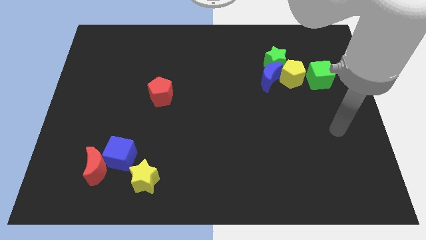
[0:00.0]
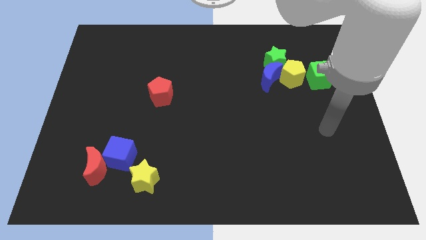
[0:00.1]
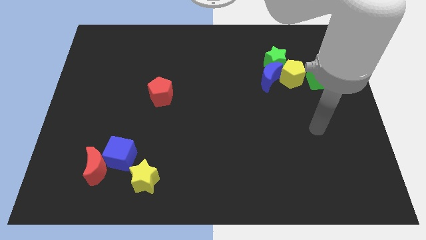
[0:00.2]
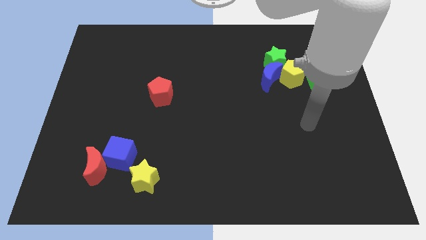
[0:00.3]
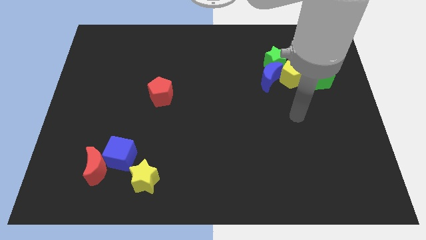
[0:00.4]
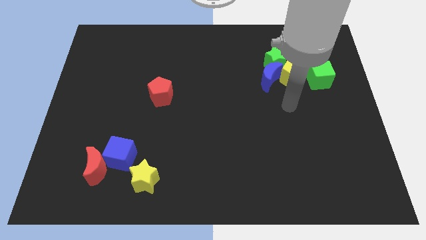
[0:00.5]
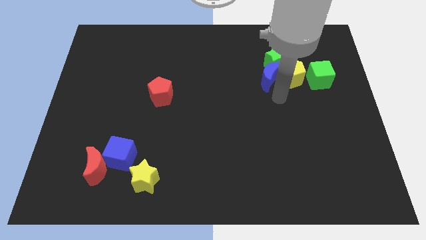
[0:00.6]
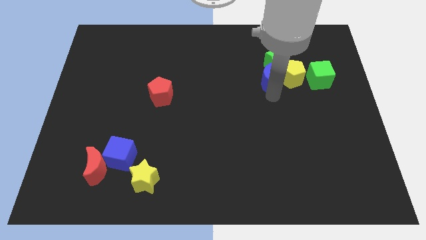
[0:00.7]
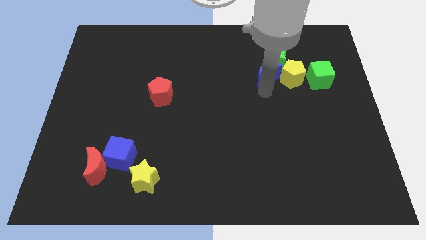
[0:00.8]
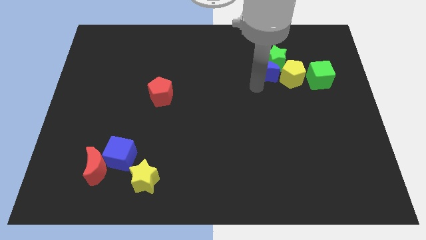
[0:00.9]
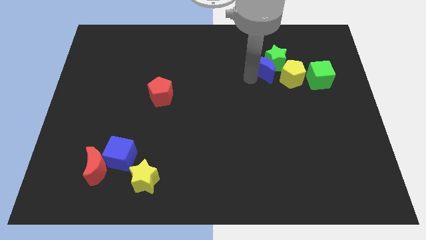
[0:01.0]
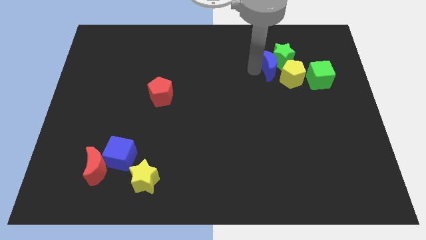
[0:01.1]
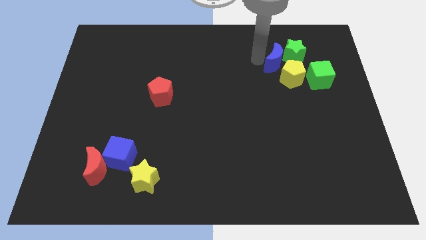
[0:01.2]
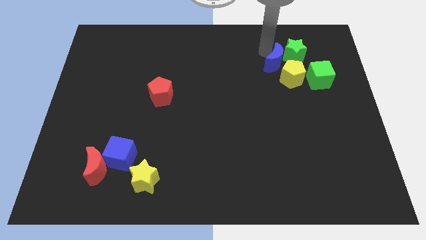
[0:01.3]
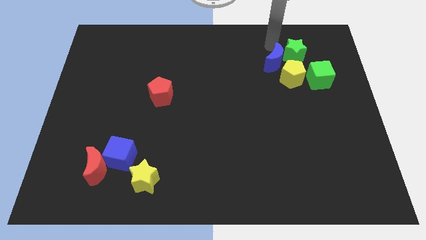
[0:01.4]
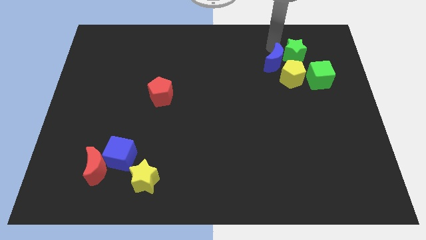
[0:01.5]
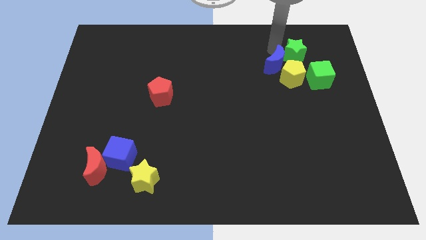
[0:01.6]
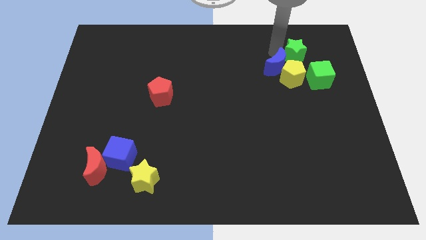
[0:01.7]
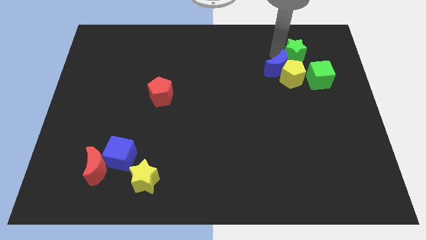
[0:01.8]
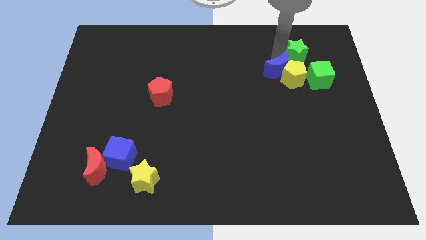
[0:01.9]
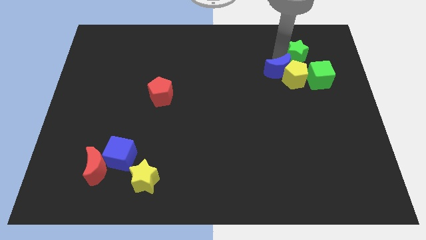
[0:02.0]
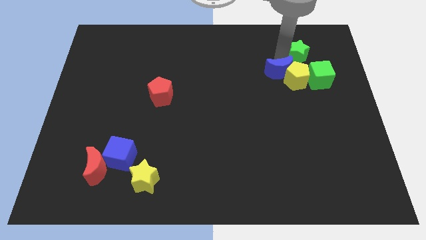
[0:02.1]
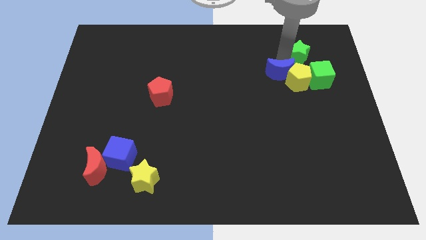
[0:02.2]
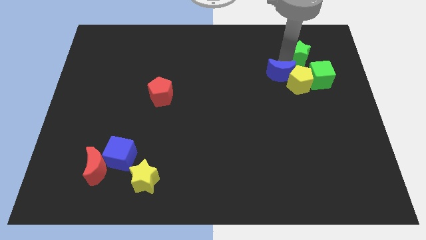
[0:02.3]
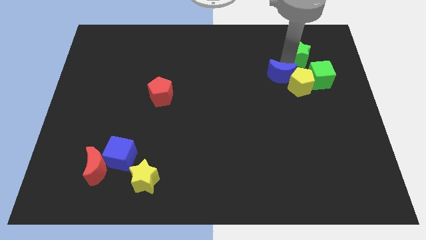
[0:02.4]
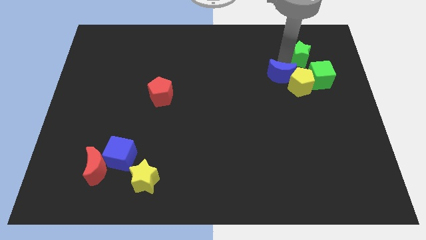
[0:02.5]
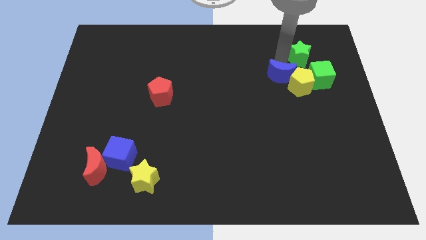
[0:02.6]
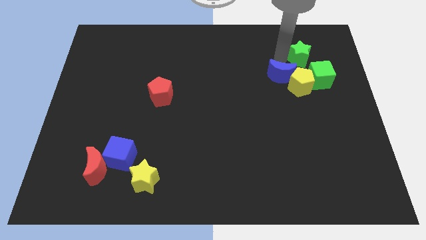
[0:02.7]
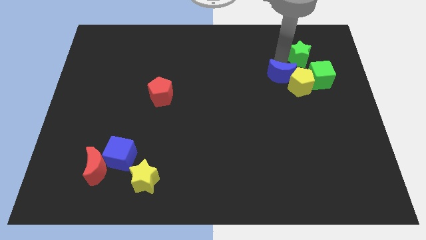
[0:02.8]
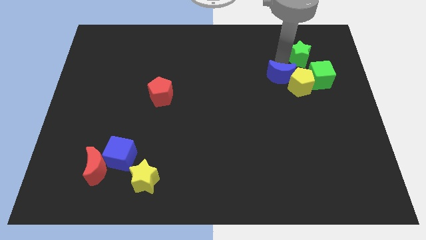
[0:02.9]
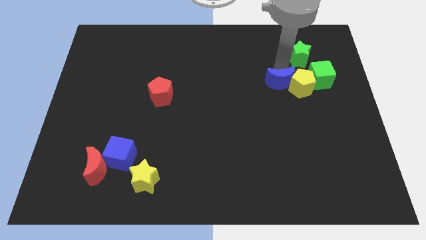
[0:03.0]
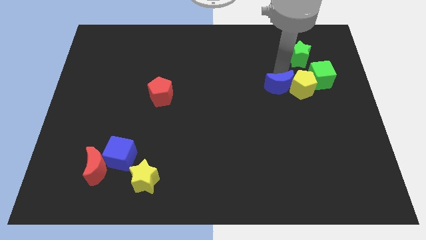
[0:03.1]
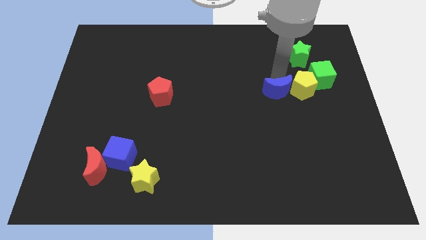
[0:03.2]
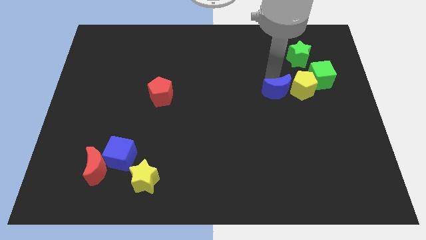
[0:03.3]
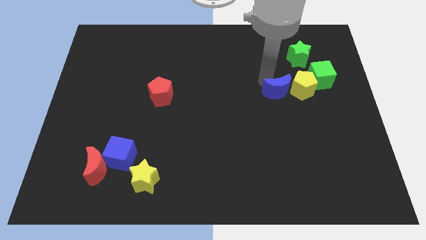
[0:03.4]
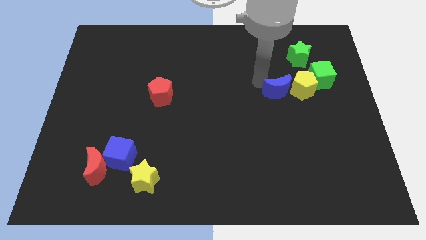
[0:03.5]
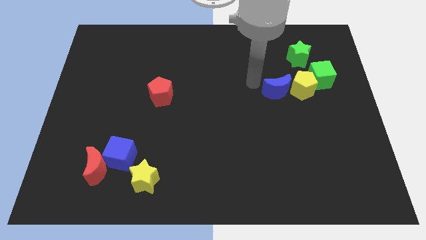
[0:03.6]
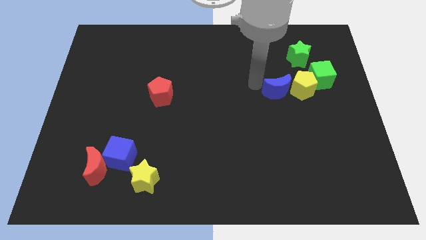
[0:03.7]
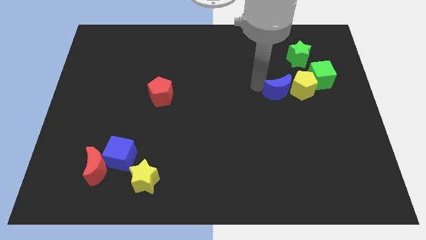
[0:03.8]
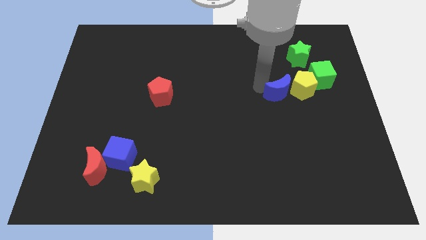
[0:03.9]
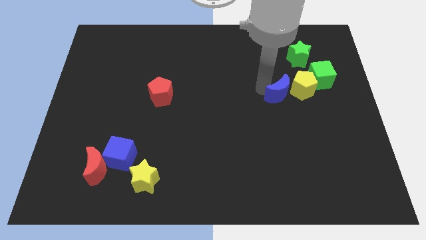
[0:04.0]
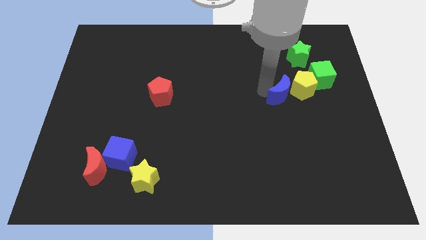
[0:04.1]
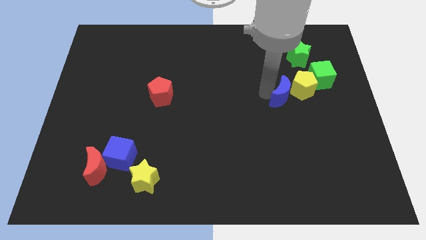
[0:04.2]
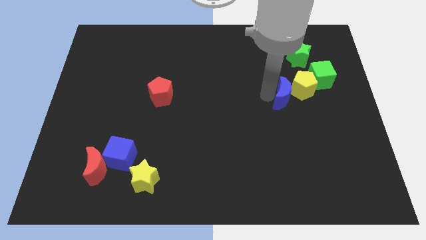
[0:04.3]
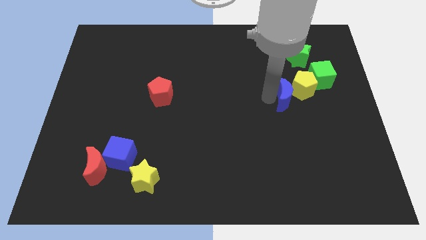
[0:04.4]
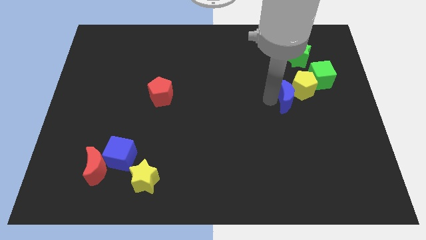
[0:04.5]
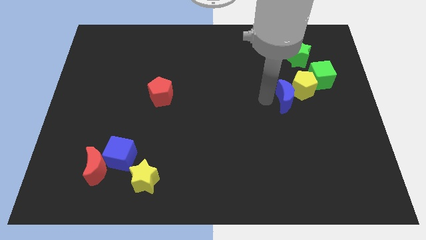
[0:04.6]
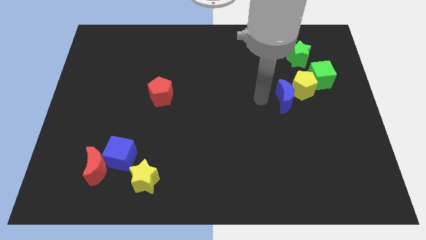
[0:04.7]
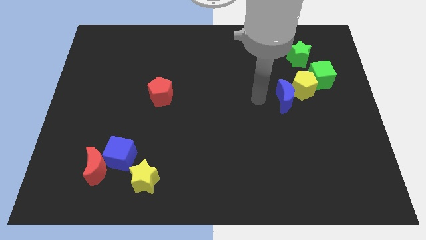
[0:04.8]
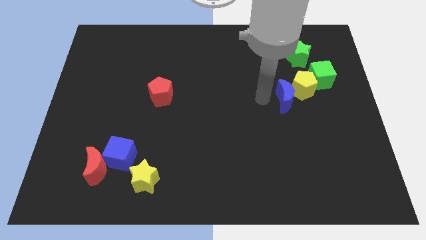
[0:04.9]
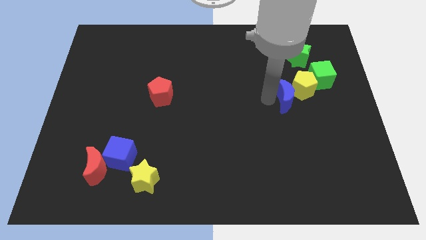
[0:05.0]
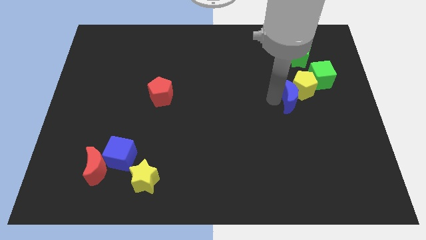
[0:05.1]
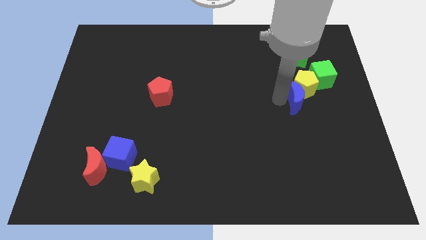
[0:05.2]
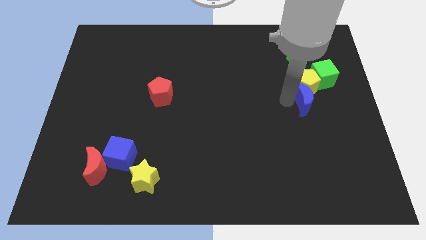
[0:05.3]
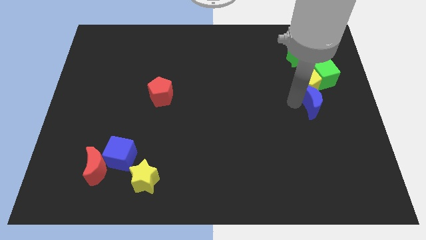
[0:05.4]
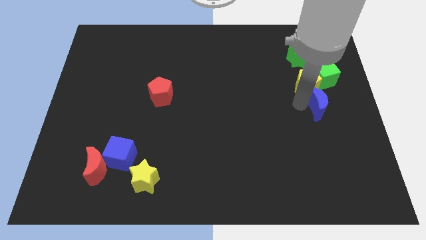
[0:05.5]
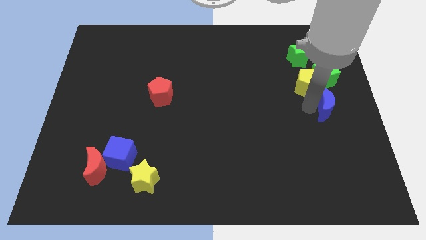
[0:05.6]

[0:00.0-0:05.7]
put the blue moon to the right side

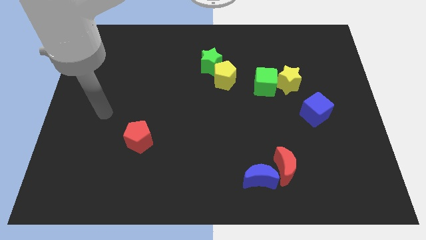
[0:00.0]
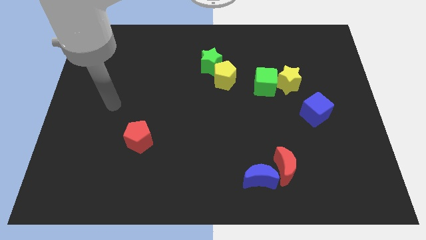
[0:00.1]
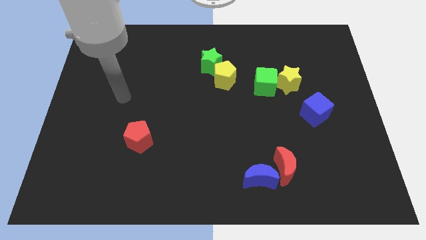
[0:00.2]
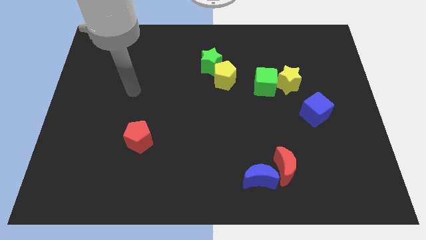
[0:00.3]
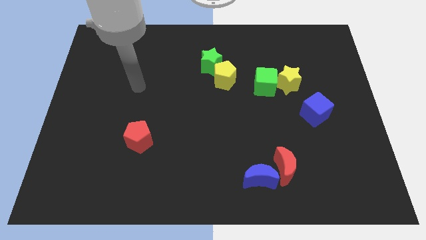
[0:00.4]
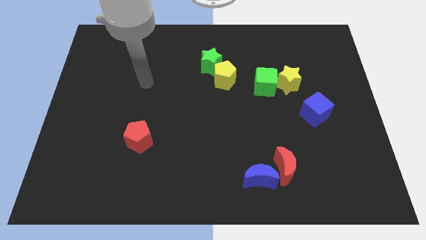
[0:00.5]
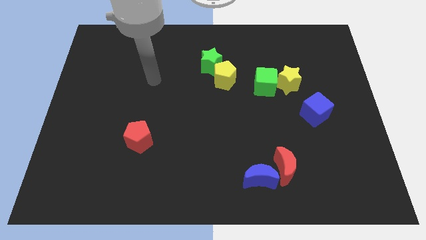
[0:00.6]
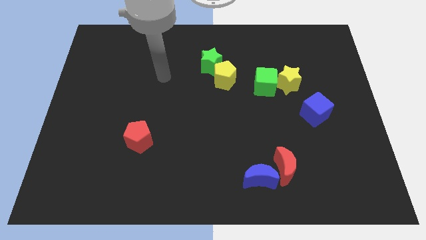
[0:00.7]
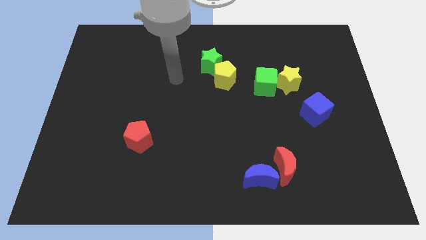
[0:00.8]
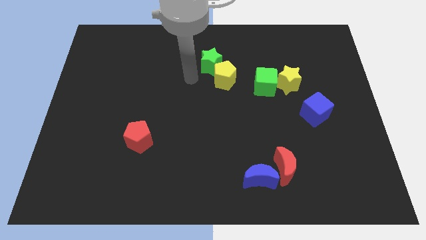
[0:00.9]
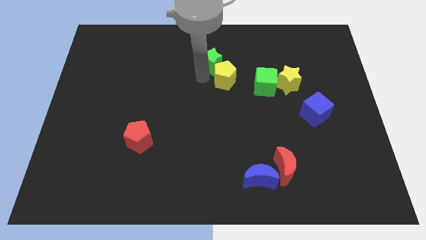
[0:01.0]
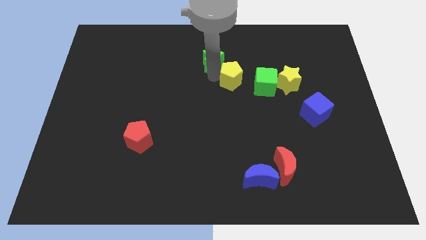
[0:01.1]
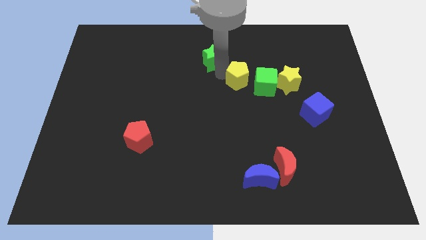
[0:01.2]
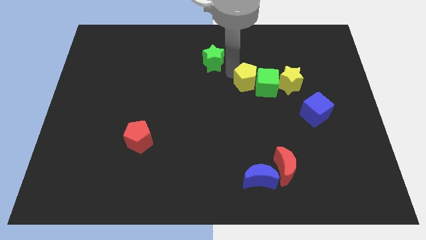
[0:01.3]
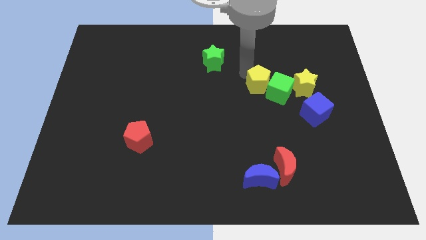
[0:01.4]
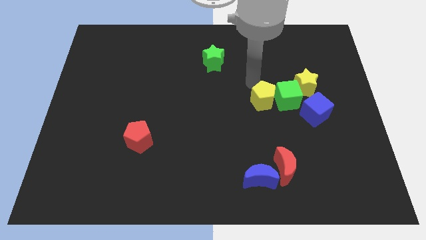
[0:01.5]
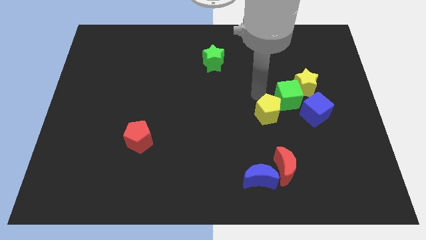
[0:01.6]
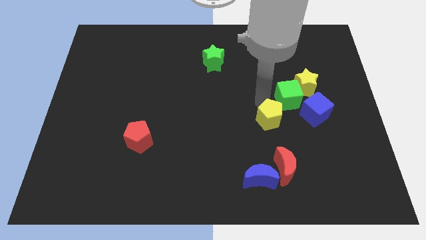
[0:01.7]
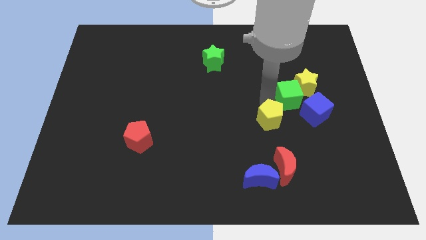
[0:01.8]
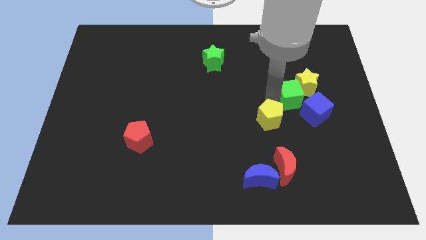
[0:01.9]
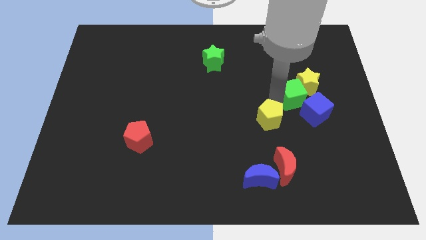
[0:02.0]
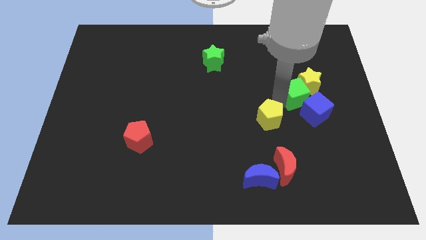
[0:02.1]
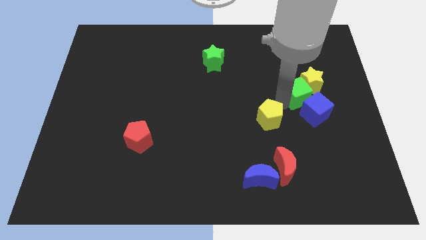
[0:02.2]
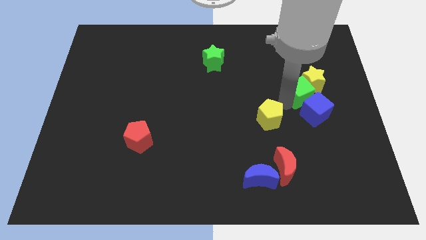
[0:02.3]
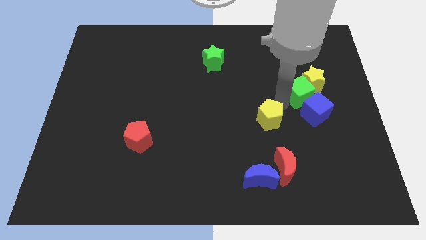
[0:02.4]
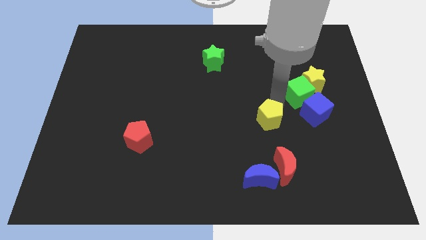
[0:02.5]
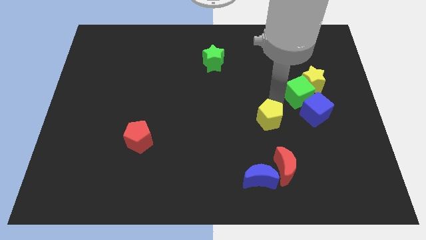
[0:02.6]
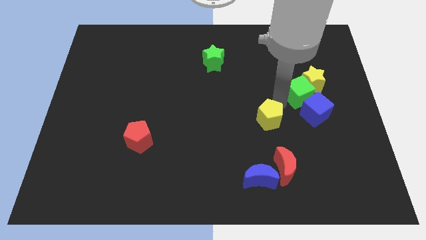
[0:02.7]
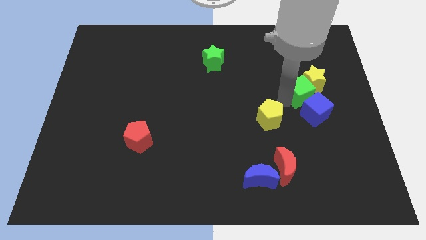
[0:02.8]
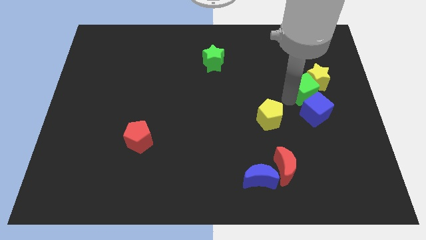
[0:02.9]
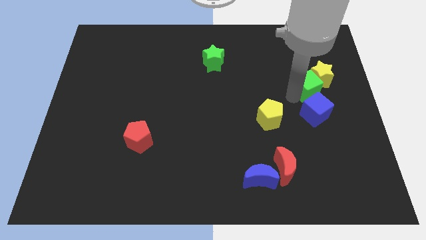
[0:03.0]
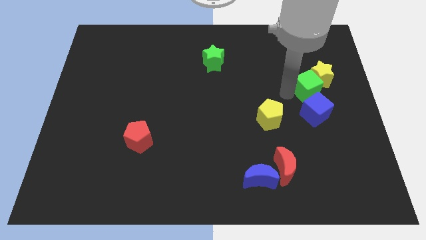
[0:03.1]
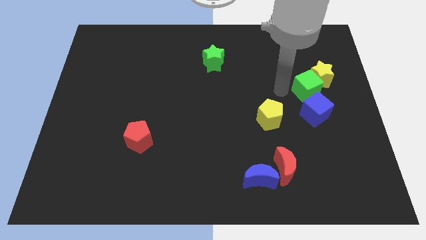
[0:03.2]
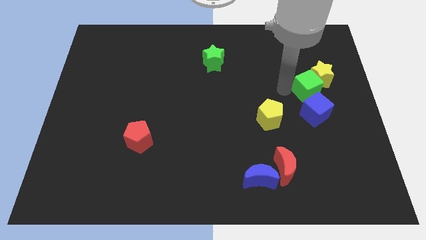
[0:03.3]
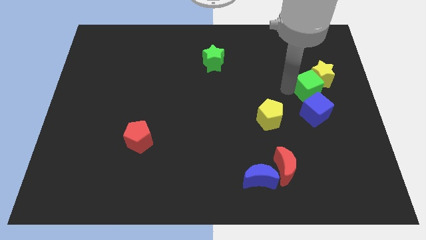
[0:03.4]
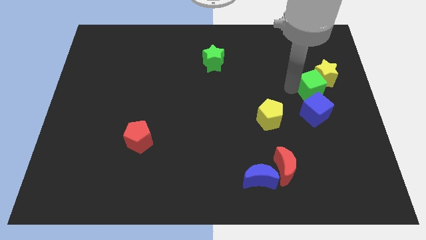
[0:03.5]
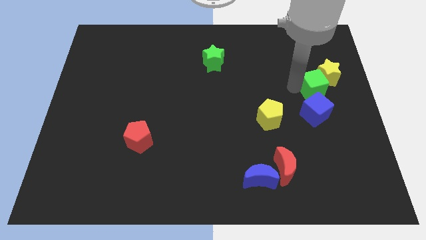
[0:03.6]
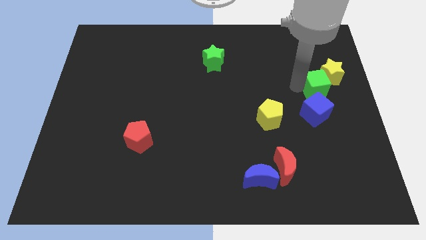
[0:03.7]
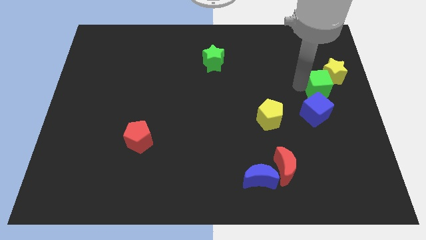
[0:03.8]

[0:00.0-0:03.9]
push the green cube to the center right
